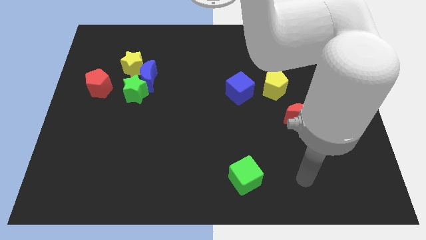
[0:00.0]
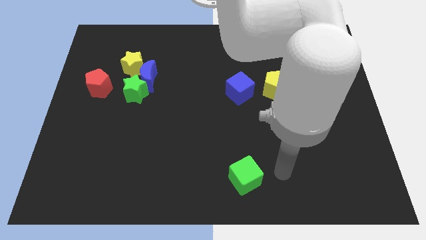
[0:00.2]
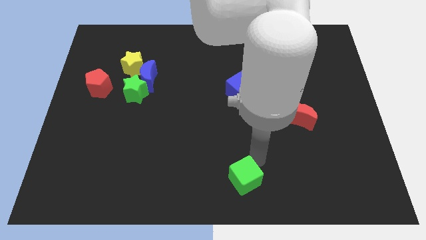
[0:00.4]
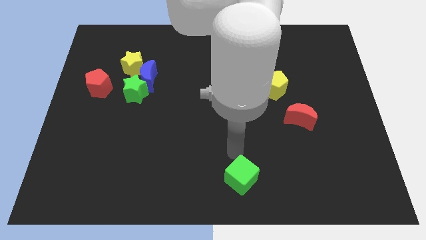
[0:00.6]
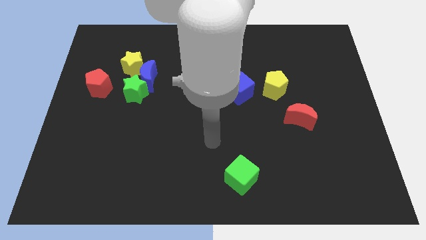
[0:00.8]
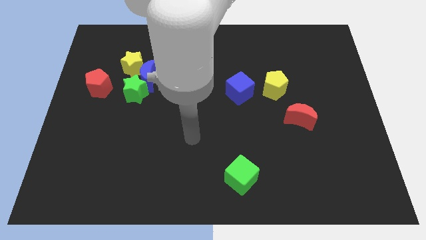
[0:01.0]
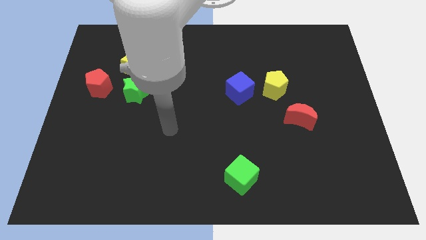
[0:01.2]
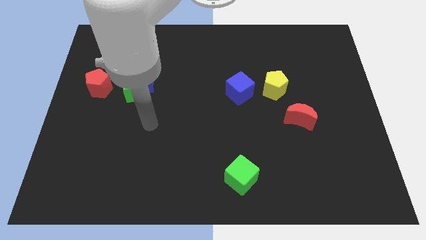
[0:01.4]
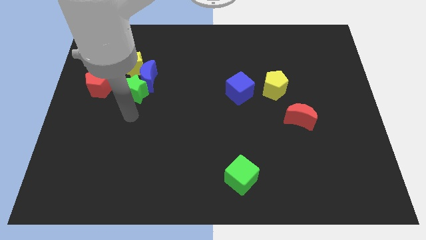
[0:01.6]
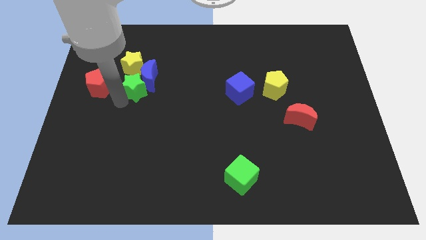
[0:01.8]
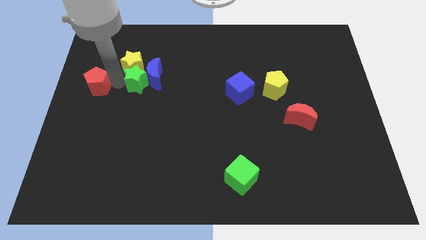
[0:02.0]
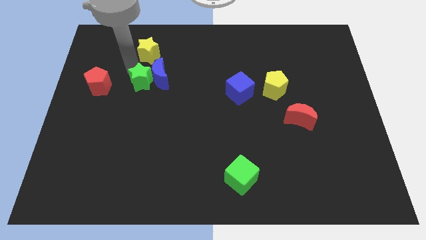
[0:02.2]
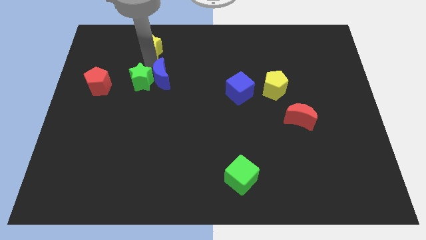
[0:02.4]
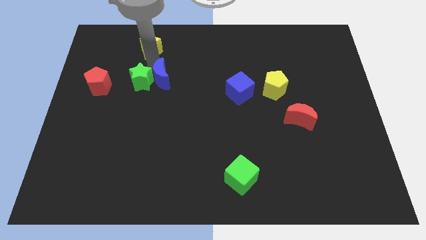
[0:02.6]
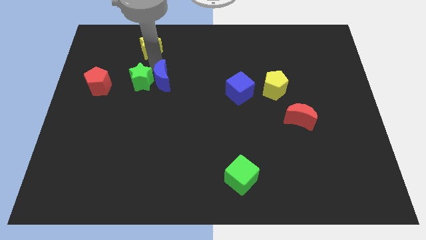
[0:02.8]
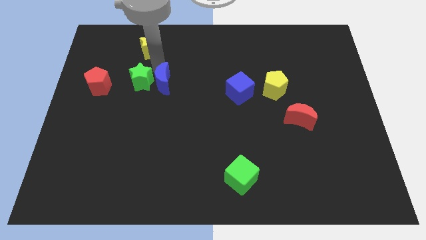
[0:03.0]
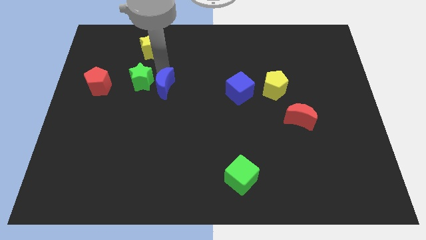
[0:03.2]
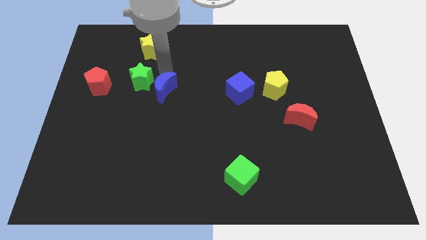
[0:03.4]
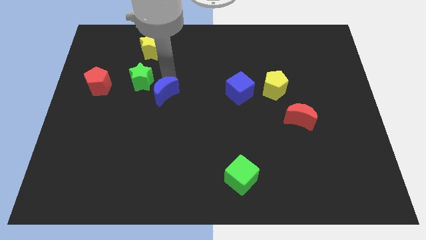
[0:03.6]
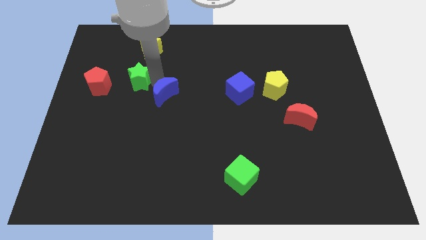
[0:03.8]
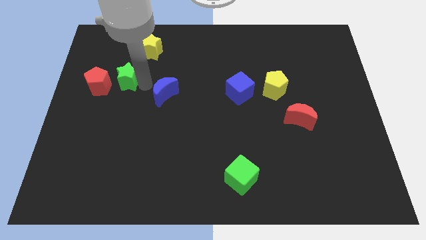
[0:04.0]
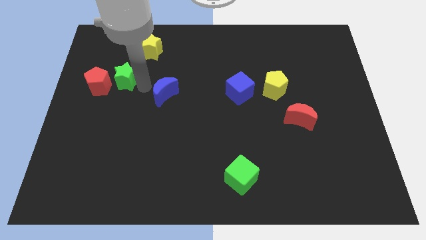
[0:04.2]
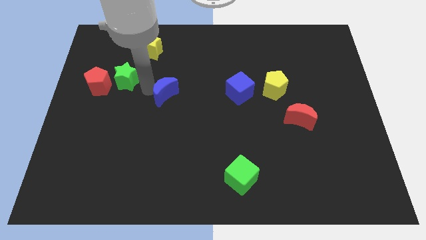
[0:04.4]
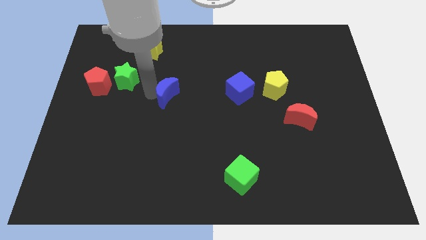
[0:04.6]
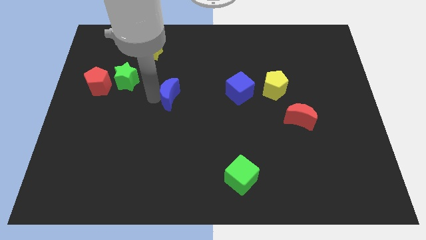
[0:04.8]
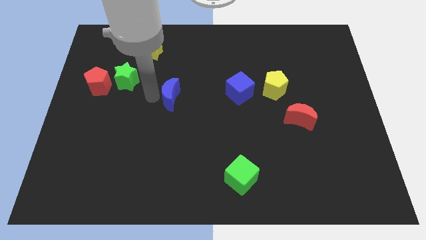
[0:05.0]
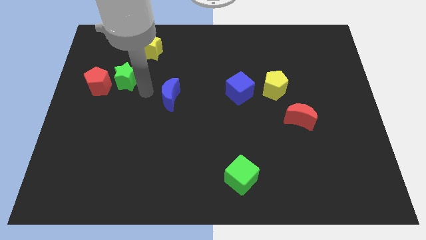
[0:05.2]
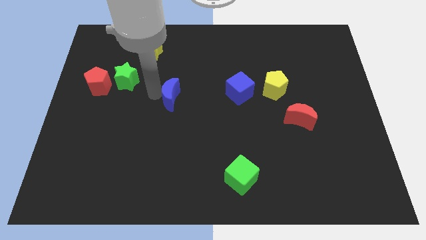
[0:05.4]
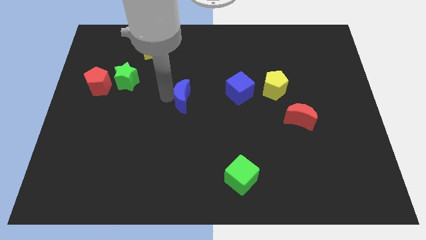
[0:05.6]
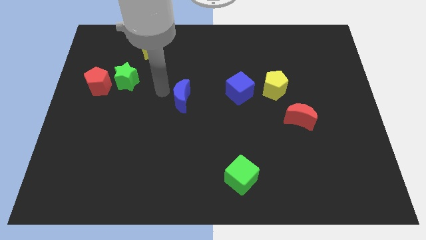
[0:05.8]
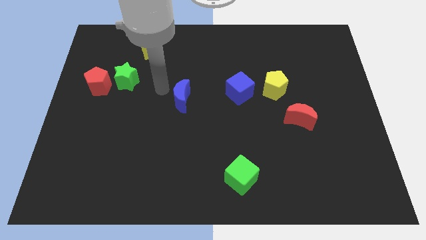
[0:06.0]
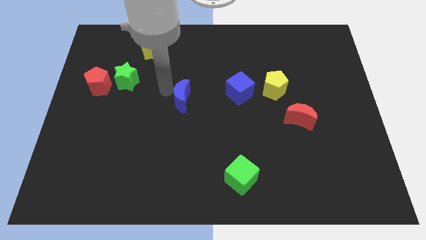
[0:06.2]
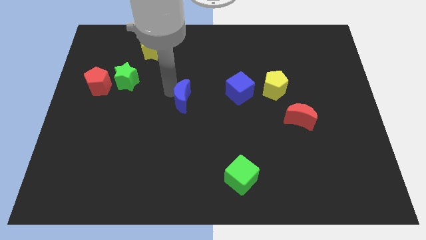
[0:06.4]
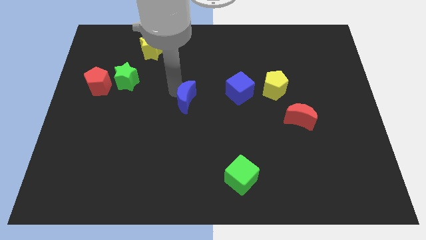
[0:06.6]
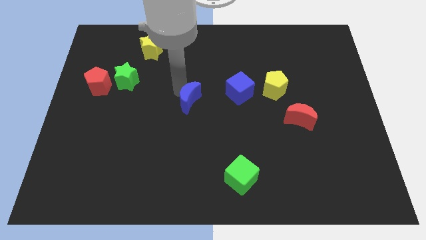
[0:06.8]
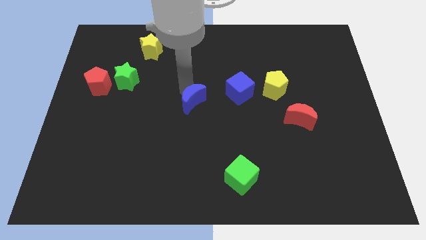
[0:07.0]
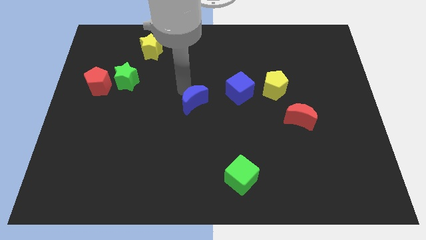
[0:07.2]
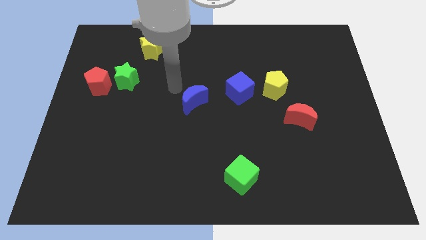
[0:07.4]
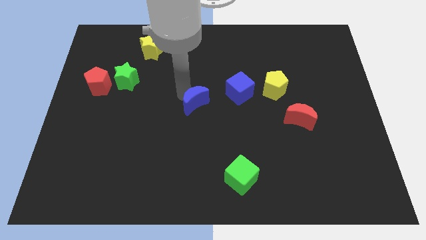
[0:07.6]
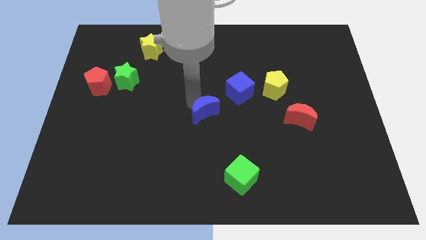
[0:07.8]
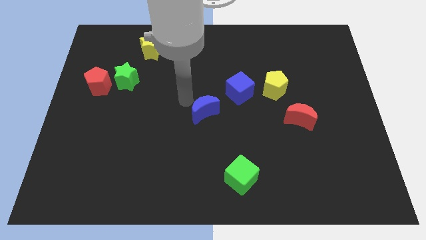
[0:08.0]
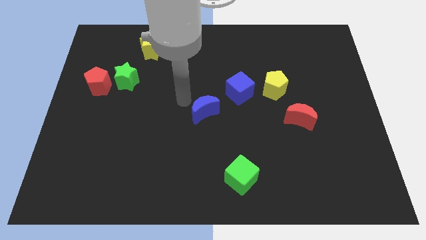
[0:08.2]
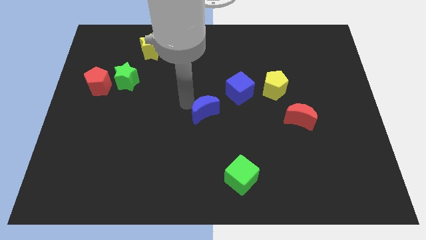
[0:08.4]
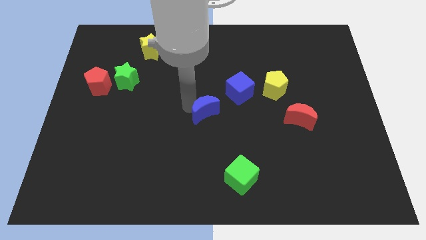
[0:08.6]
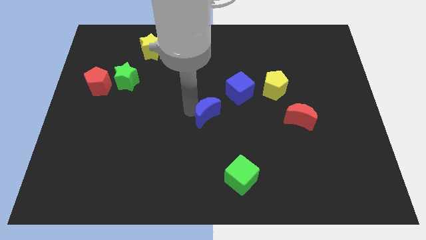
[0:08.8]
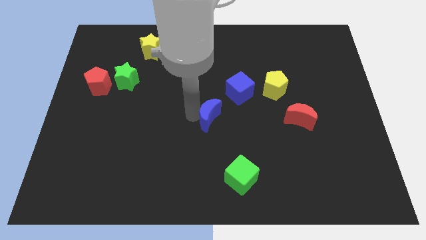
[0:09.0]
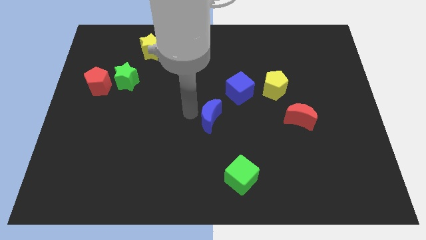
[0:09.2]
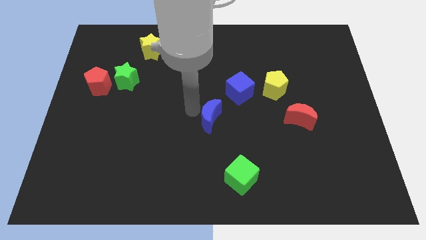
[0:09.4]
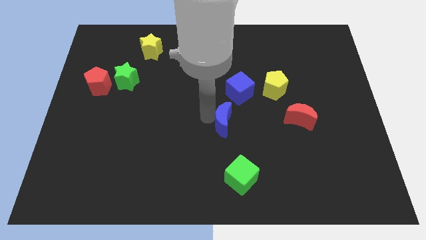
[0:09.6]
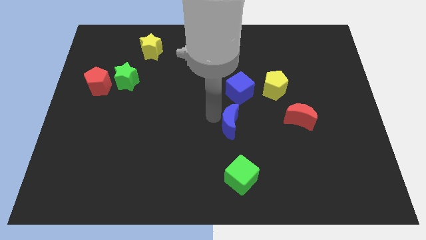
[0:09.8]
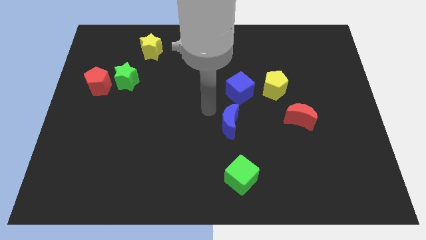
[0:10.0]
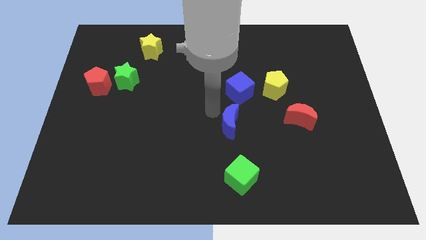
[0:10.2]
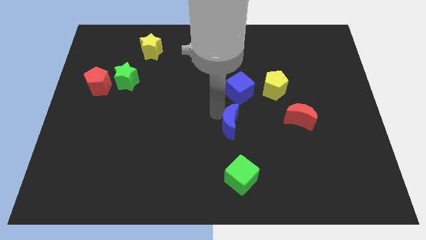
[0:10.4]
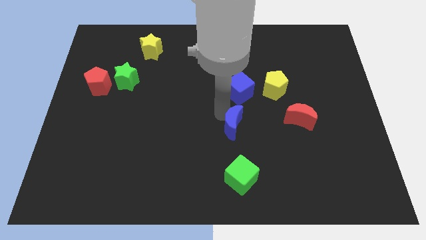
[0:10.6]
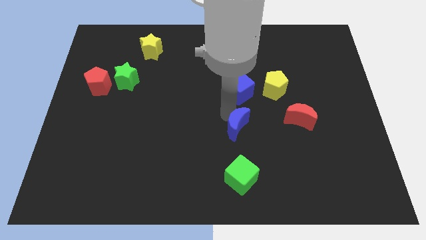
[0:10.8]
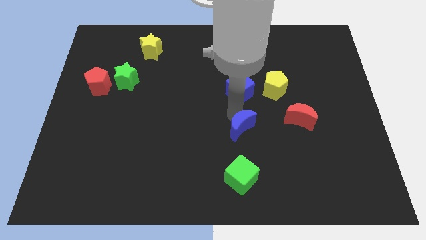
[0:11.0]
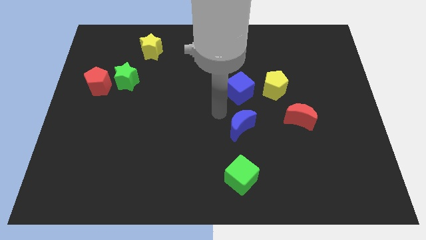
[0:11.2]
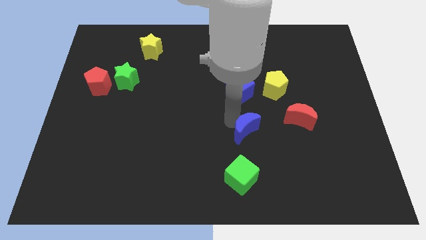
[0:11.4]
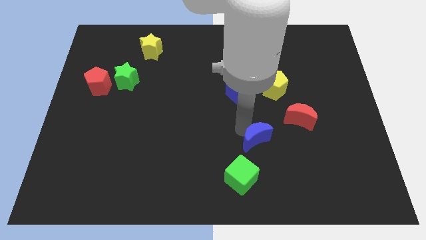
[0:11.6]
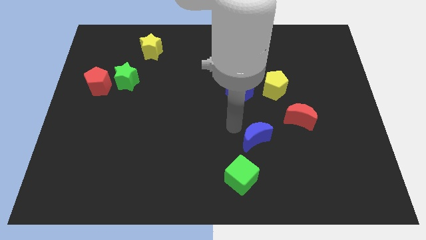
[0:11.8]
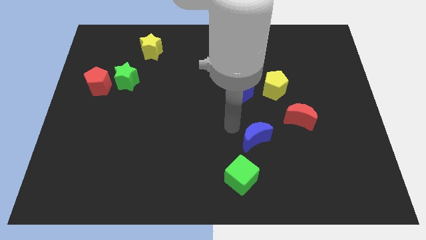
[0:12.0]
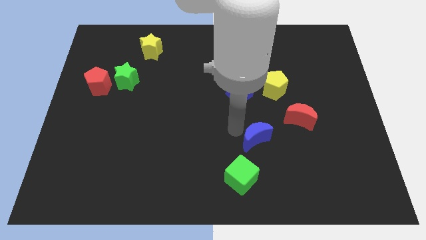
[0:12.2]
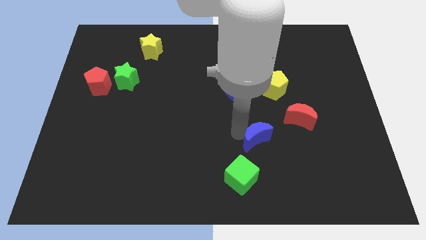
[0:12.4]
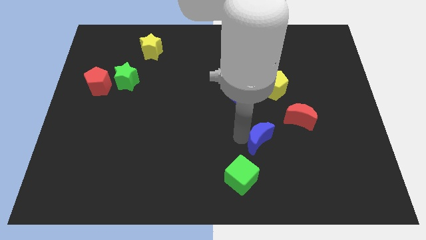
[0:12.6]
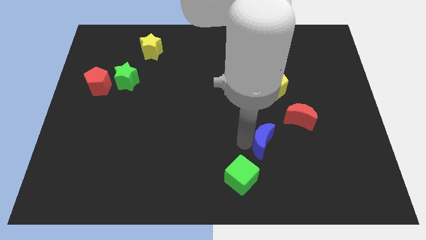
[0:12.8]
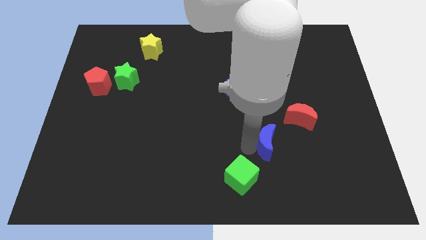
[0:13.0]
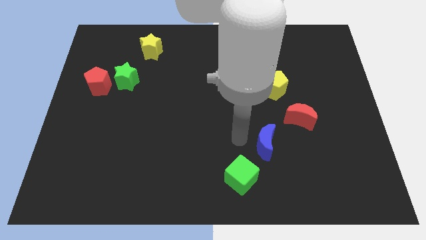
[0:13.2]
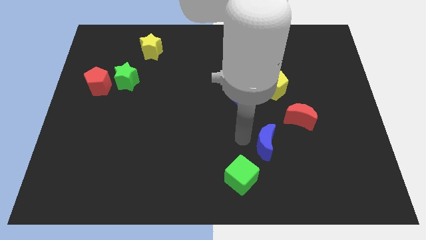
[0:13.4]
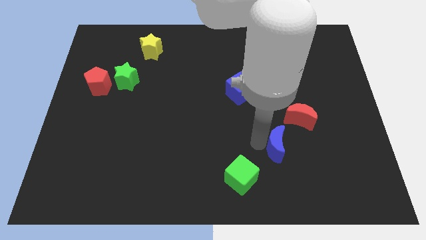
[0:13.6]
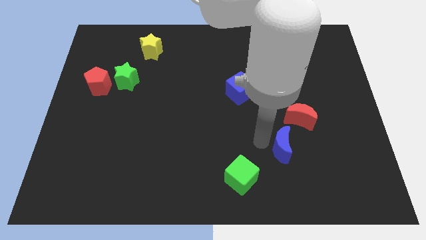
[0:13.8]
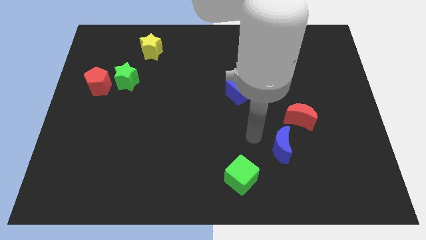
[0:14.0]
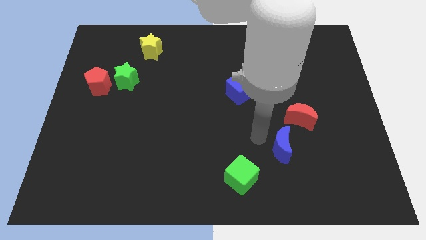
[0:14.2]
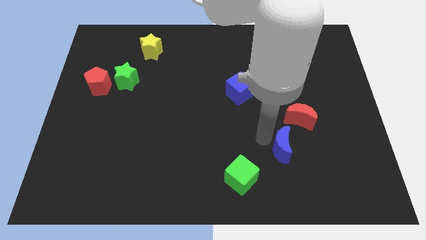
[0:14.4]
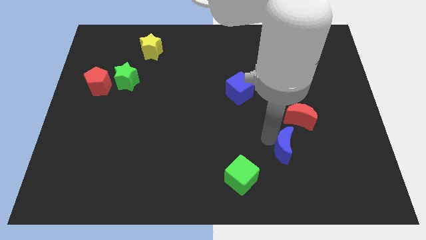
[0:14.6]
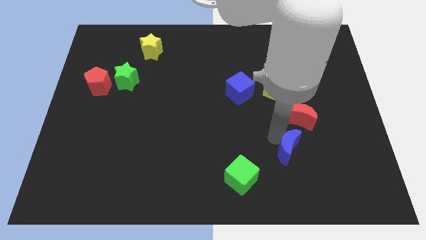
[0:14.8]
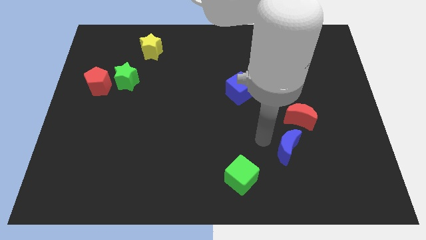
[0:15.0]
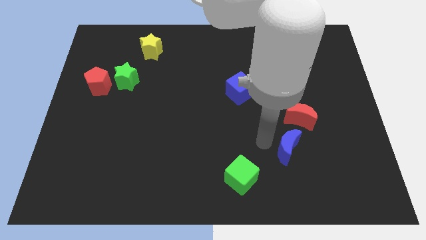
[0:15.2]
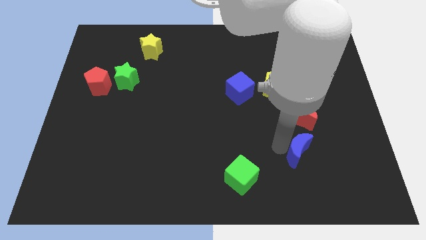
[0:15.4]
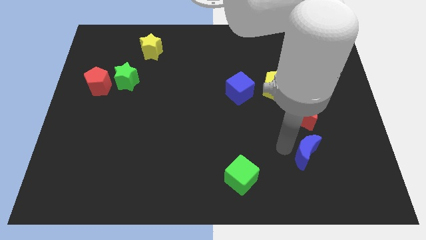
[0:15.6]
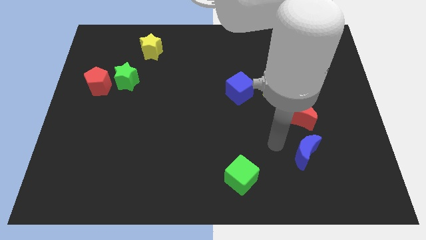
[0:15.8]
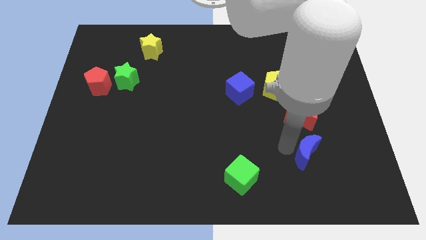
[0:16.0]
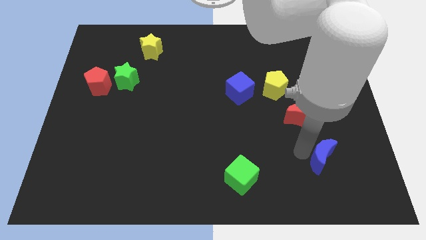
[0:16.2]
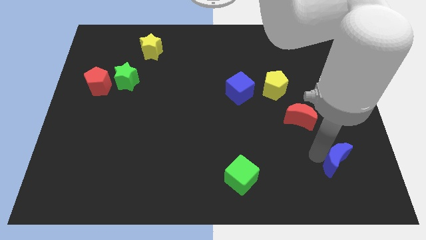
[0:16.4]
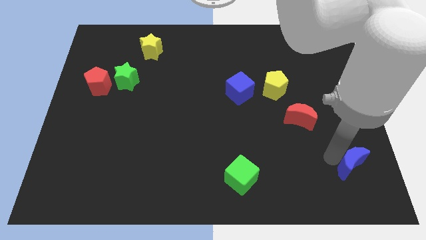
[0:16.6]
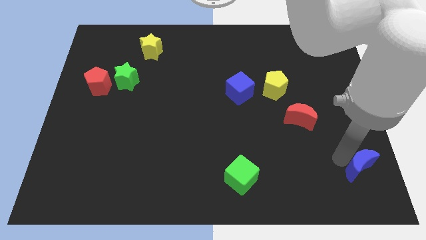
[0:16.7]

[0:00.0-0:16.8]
slide the blue moon to the bottom right
